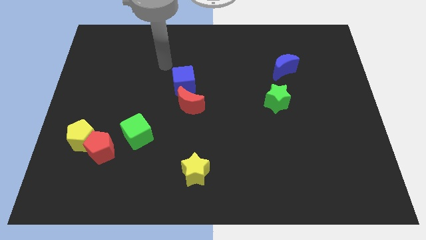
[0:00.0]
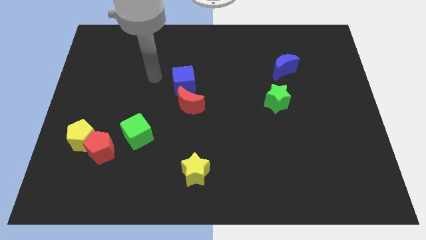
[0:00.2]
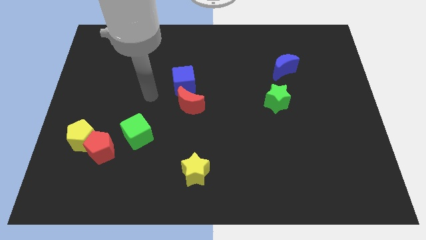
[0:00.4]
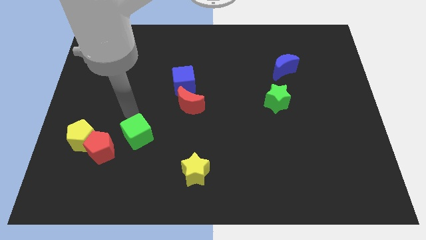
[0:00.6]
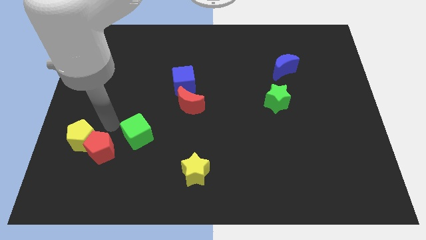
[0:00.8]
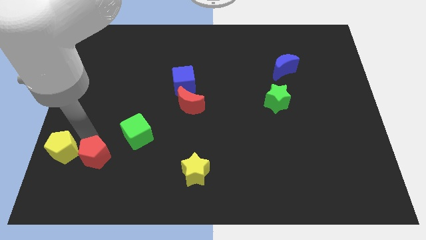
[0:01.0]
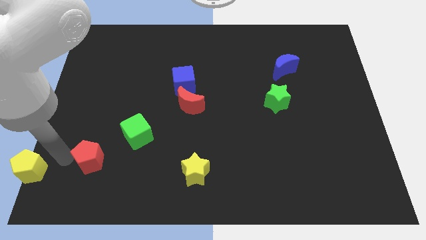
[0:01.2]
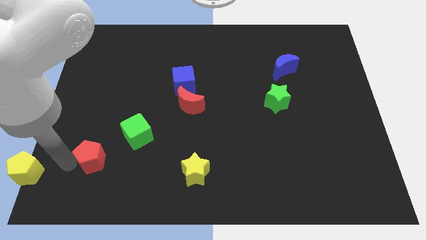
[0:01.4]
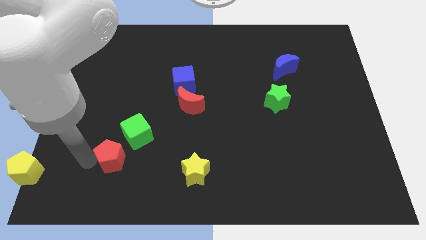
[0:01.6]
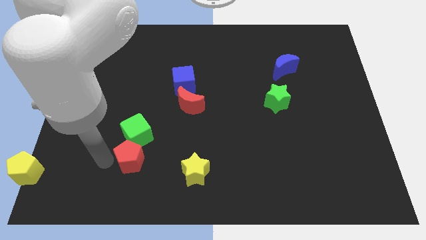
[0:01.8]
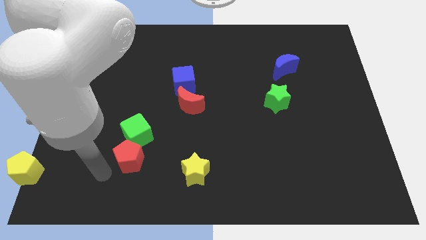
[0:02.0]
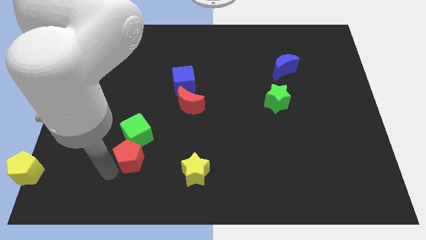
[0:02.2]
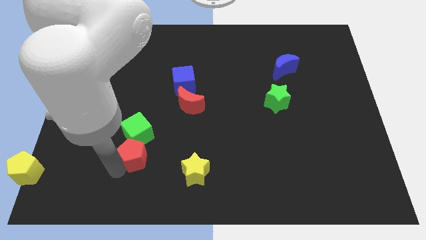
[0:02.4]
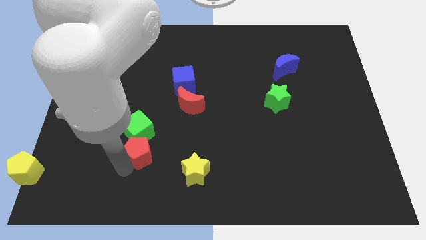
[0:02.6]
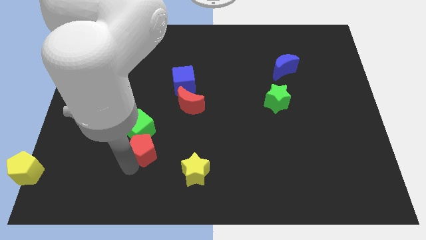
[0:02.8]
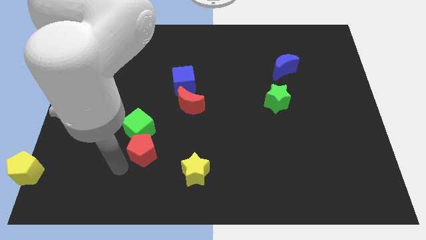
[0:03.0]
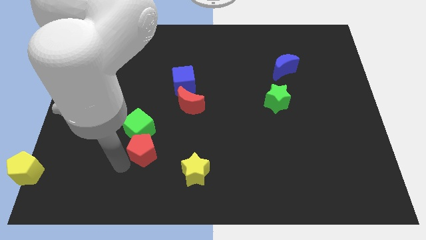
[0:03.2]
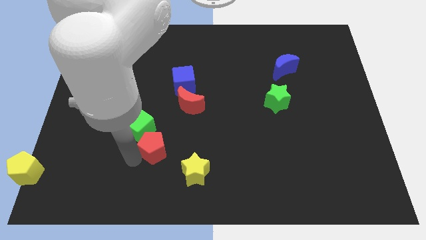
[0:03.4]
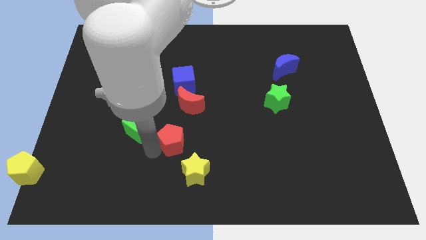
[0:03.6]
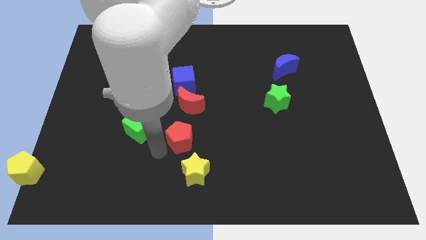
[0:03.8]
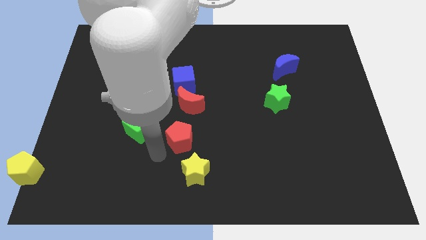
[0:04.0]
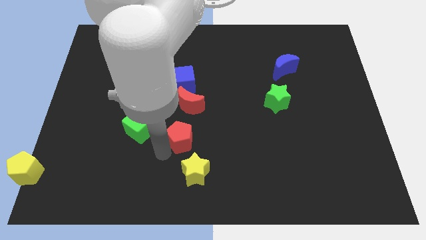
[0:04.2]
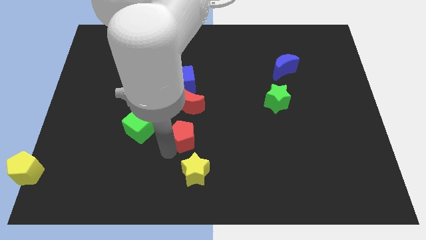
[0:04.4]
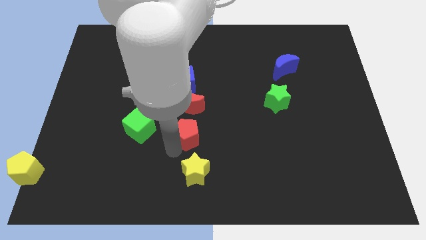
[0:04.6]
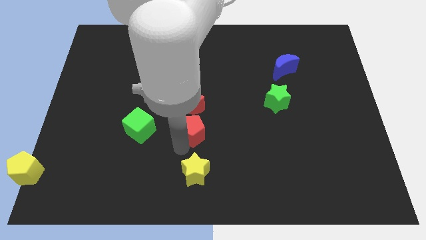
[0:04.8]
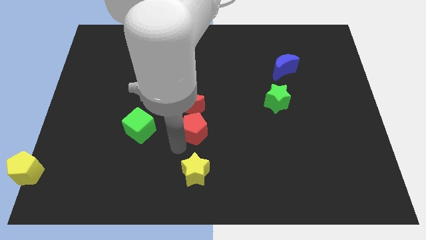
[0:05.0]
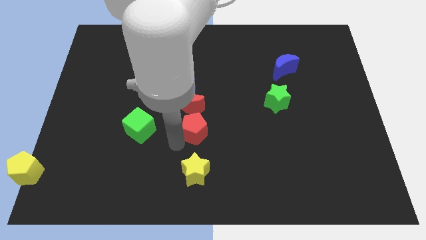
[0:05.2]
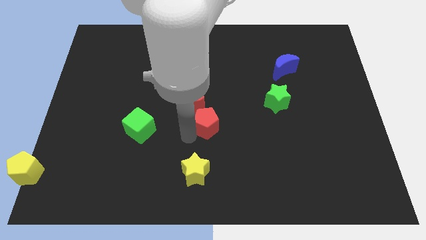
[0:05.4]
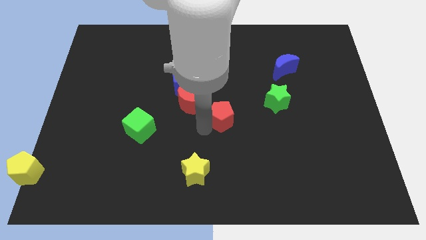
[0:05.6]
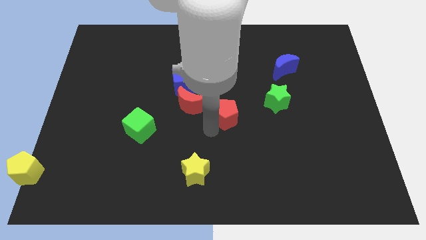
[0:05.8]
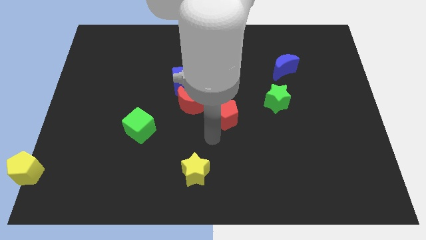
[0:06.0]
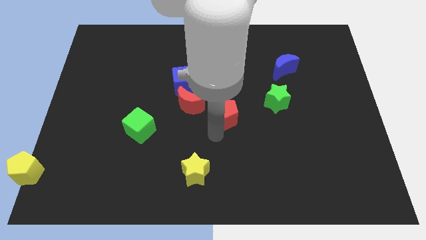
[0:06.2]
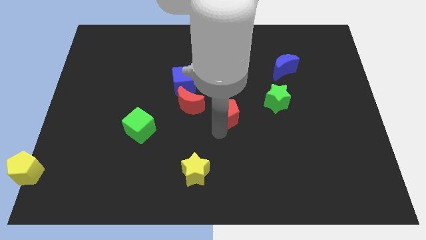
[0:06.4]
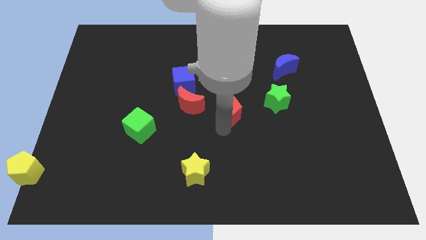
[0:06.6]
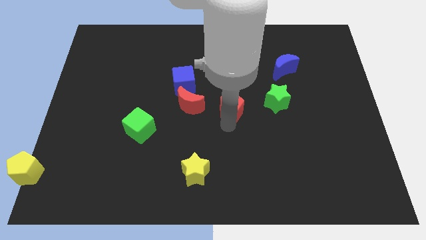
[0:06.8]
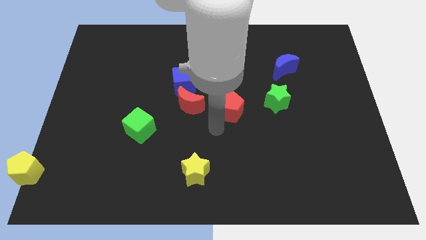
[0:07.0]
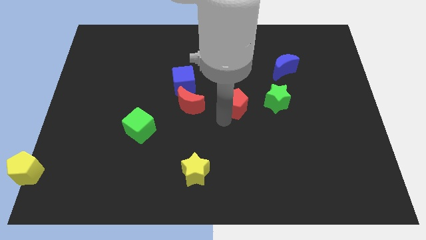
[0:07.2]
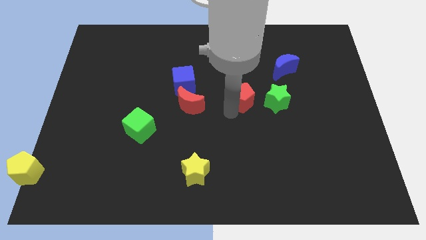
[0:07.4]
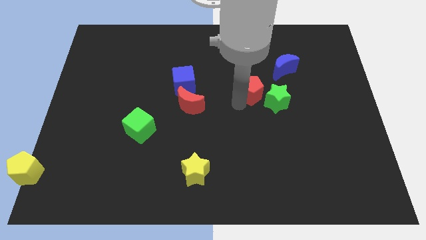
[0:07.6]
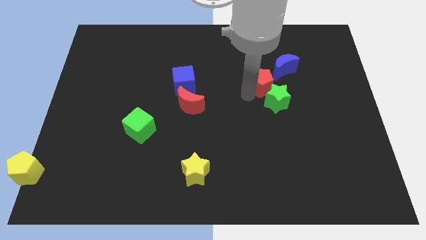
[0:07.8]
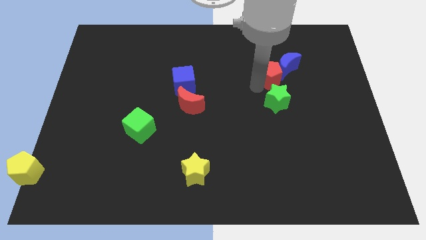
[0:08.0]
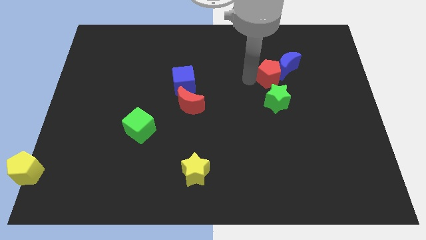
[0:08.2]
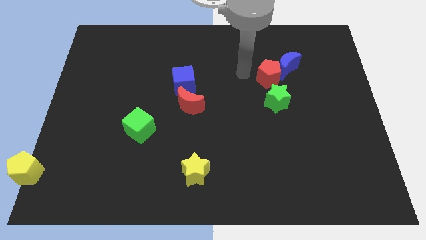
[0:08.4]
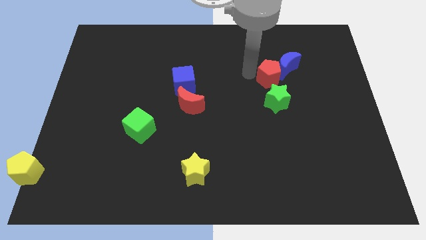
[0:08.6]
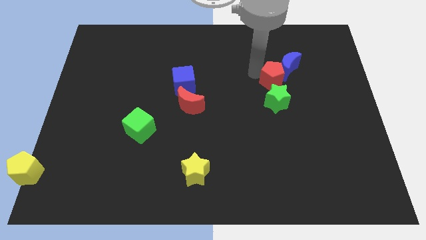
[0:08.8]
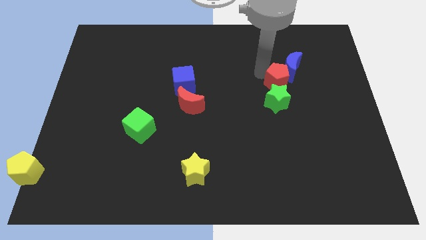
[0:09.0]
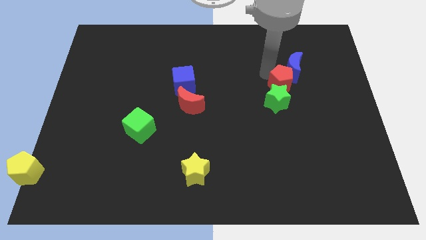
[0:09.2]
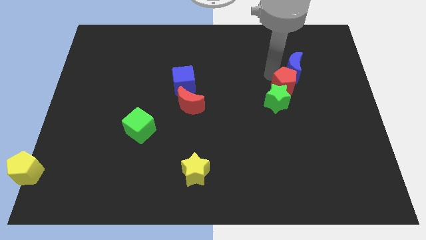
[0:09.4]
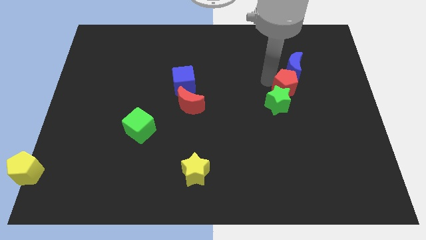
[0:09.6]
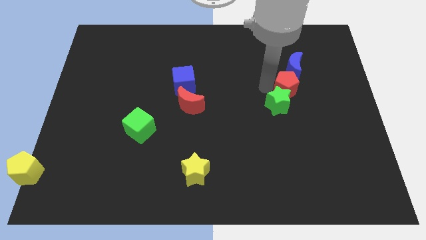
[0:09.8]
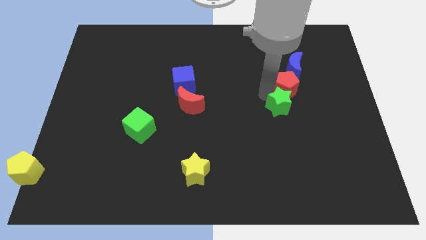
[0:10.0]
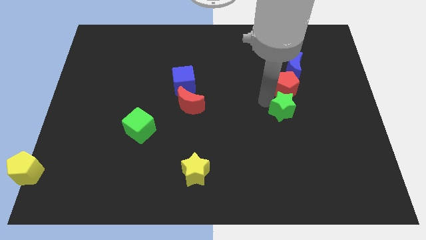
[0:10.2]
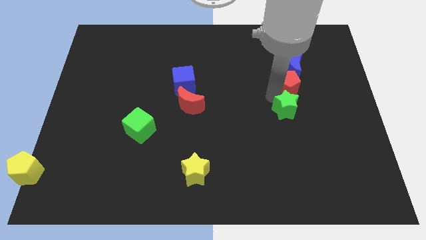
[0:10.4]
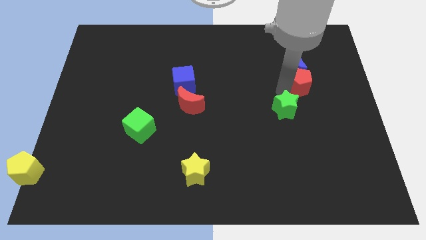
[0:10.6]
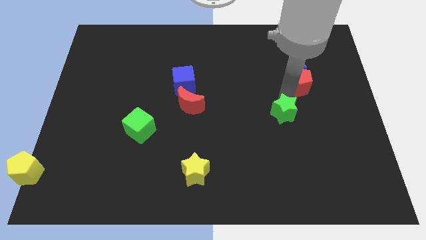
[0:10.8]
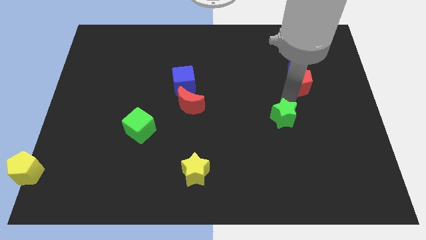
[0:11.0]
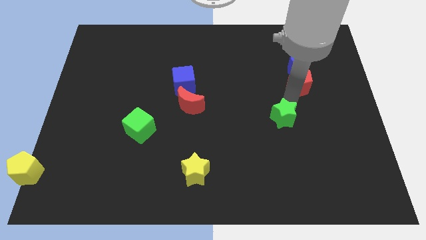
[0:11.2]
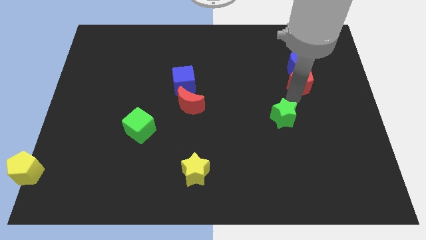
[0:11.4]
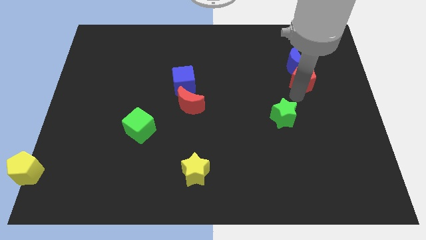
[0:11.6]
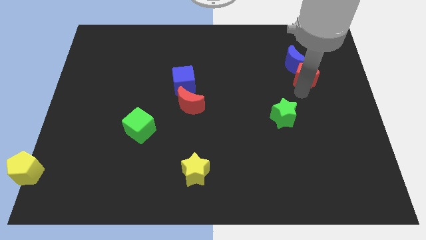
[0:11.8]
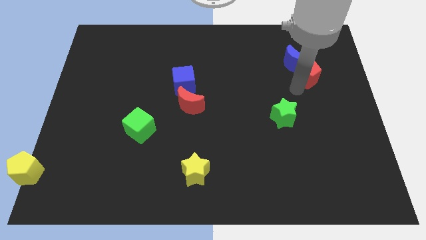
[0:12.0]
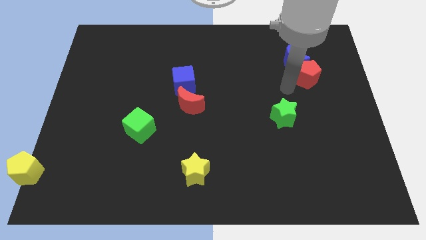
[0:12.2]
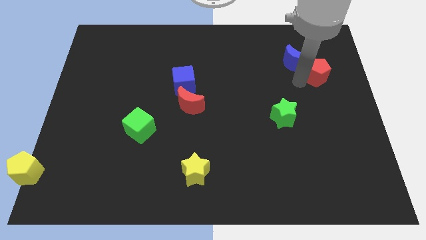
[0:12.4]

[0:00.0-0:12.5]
push the red pentagon to the right side of the blue moon

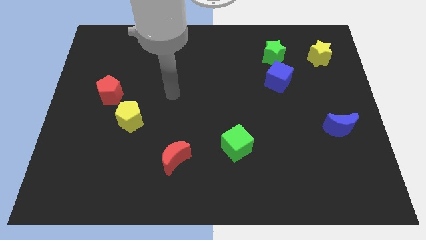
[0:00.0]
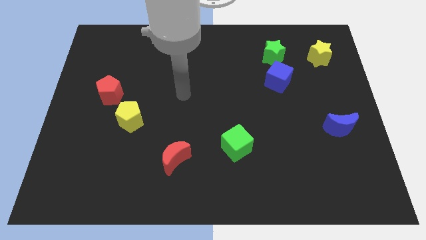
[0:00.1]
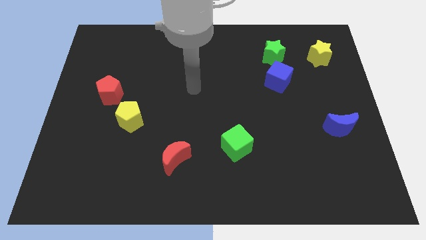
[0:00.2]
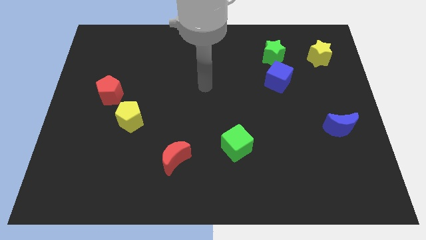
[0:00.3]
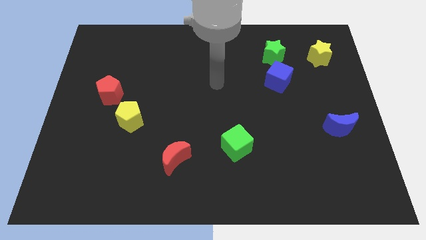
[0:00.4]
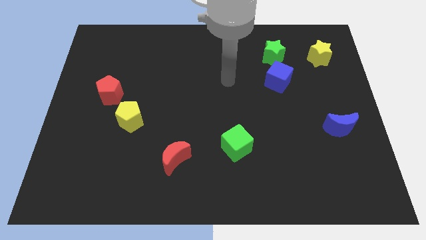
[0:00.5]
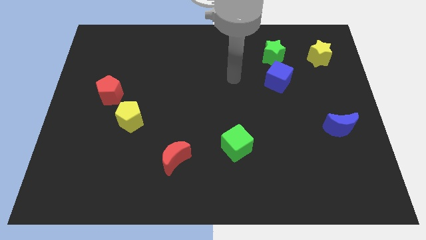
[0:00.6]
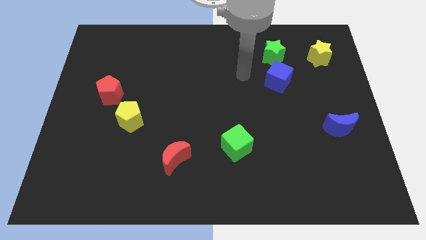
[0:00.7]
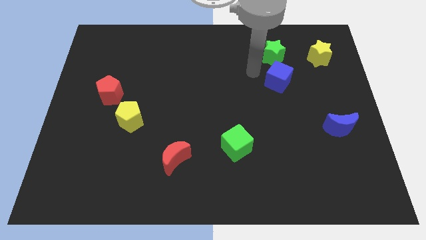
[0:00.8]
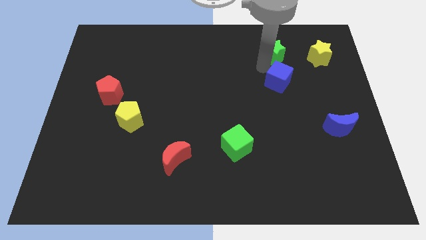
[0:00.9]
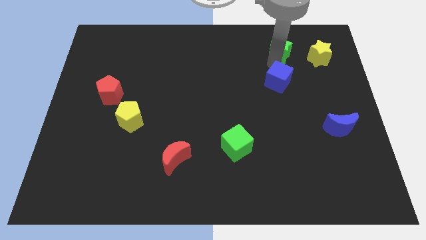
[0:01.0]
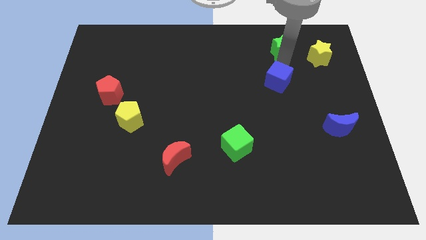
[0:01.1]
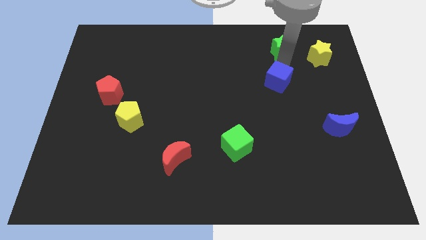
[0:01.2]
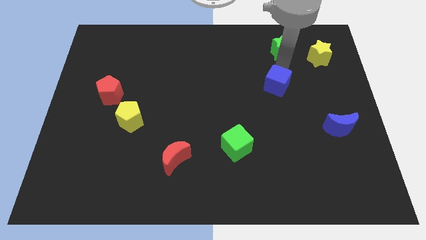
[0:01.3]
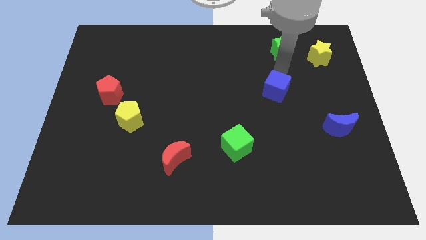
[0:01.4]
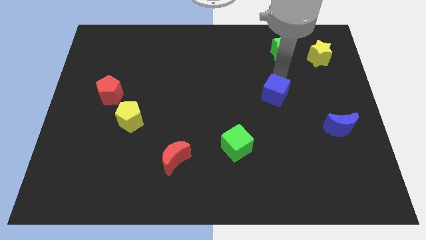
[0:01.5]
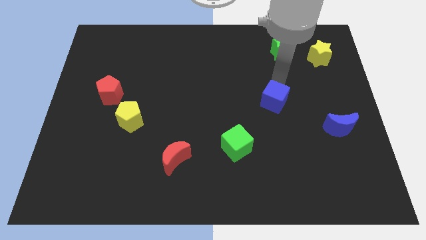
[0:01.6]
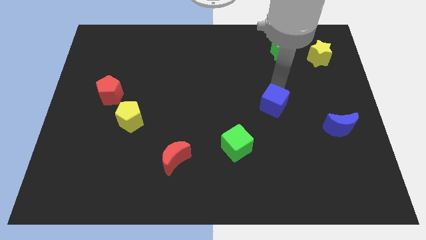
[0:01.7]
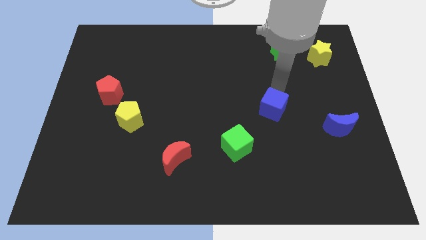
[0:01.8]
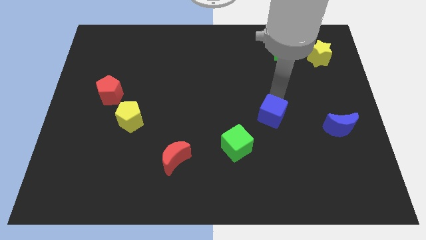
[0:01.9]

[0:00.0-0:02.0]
slide the blue cube to the top right side of the green cube
